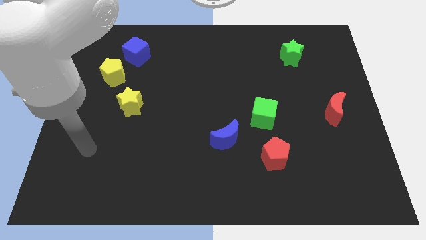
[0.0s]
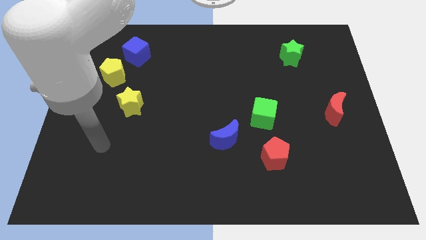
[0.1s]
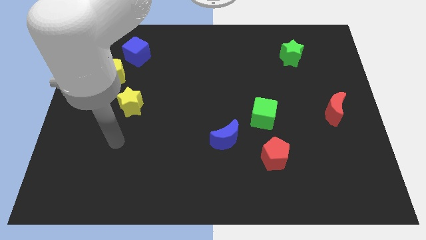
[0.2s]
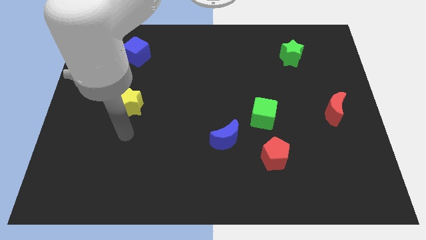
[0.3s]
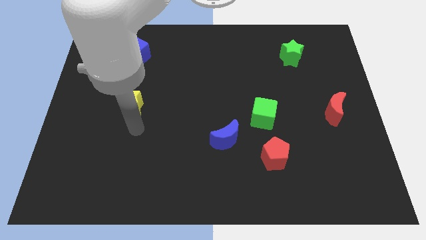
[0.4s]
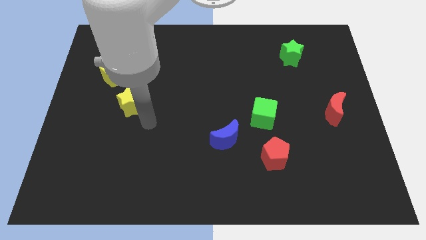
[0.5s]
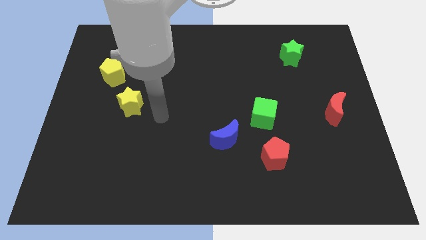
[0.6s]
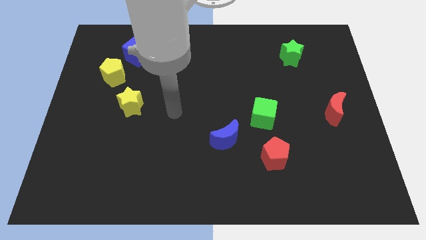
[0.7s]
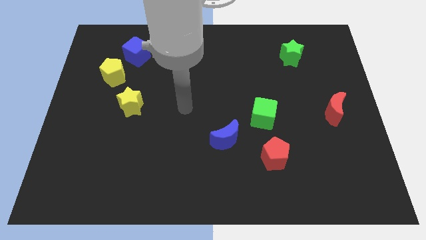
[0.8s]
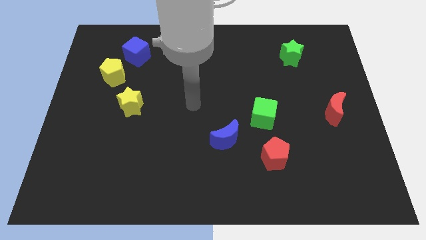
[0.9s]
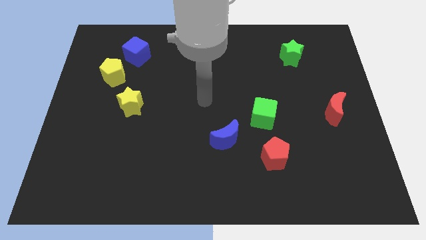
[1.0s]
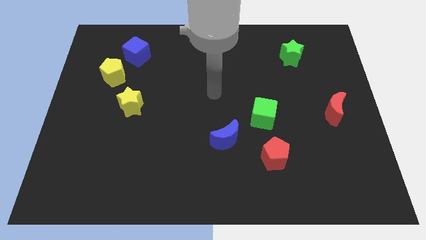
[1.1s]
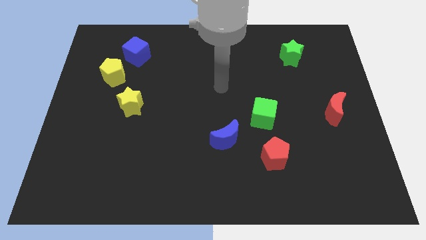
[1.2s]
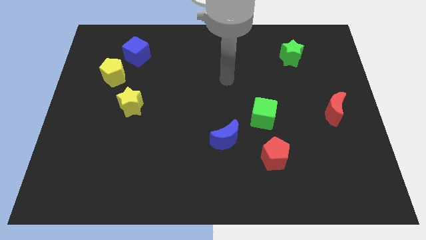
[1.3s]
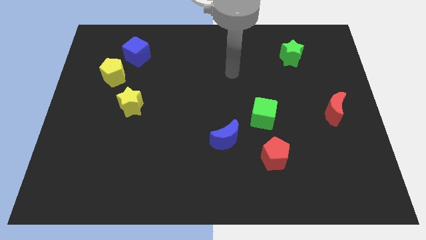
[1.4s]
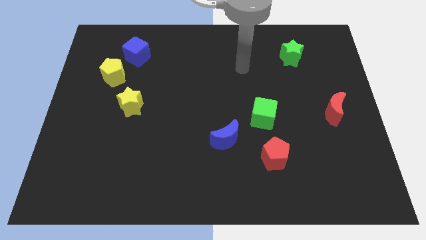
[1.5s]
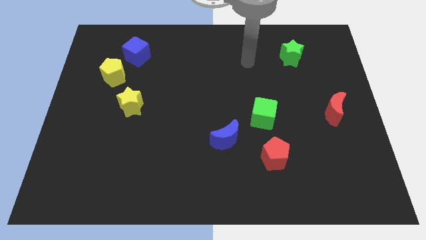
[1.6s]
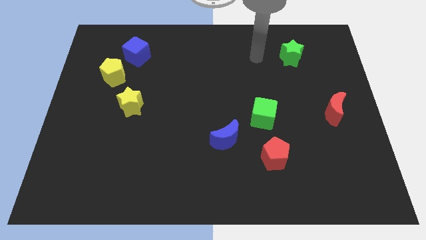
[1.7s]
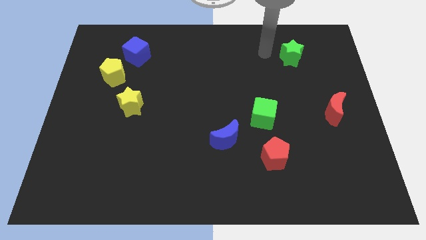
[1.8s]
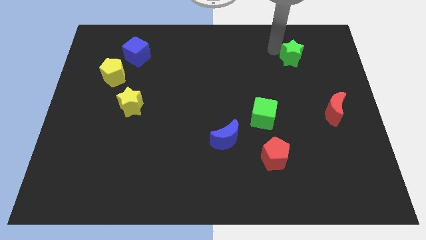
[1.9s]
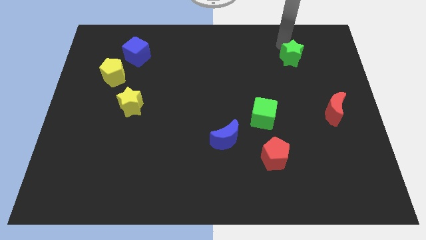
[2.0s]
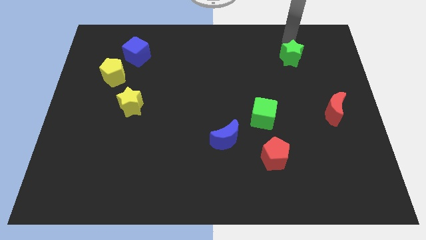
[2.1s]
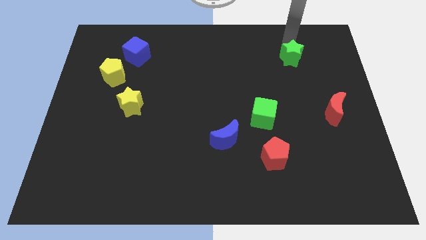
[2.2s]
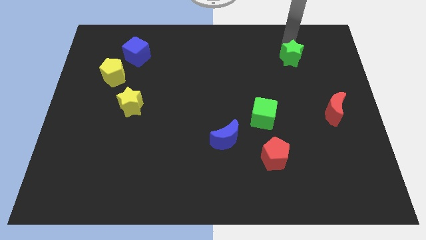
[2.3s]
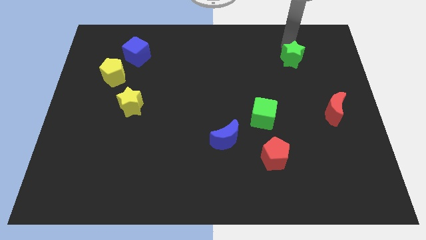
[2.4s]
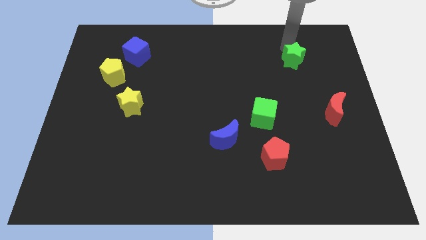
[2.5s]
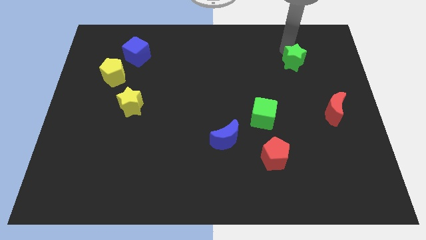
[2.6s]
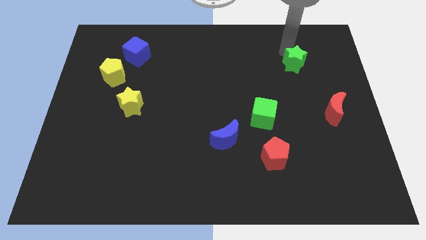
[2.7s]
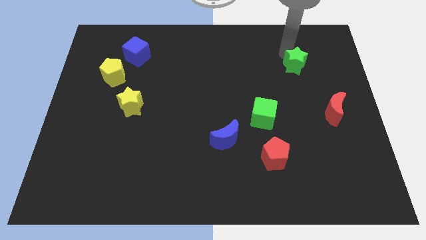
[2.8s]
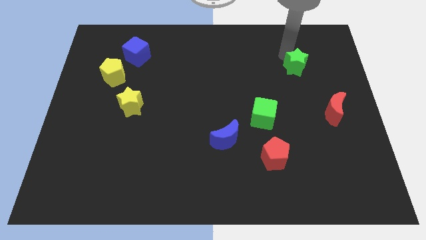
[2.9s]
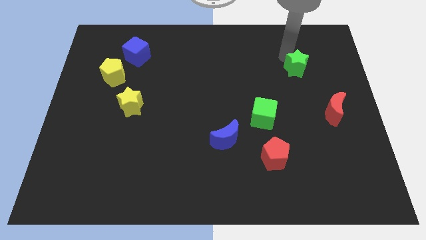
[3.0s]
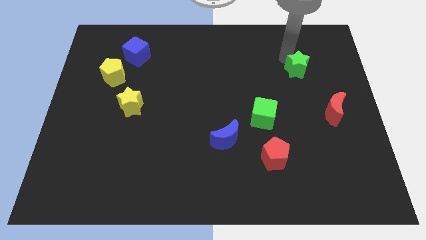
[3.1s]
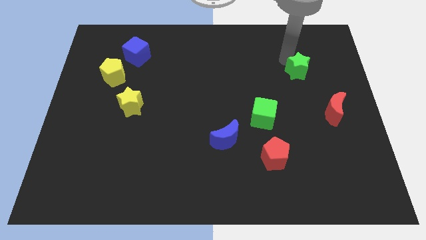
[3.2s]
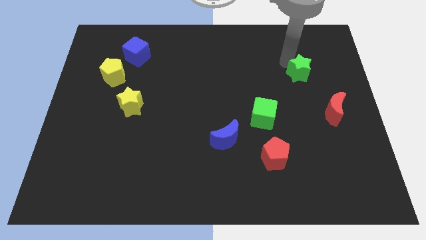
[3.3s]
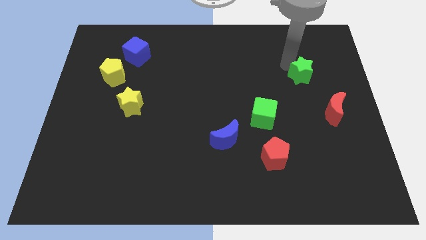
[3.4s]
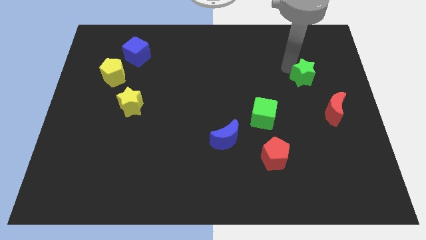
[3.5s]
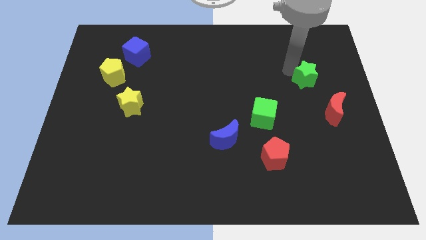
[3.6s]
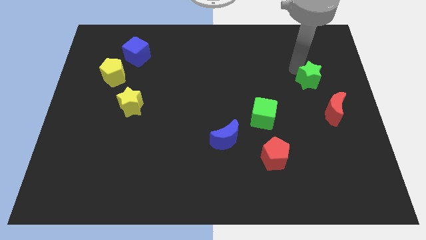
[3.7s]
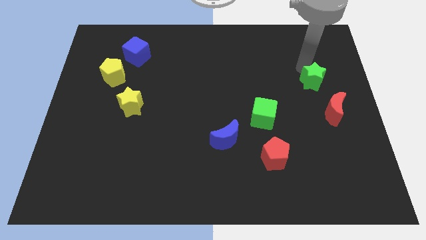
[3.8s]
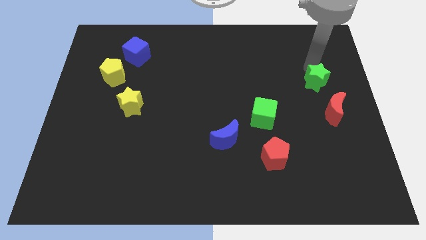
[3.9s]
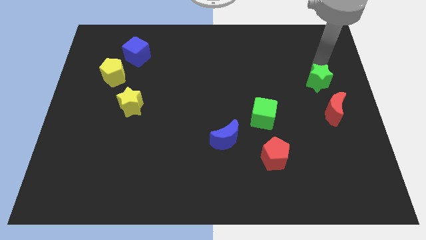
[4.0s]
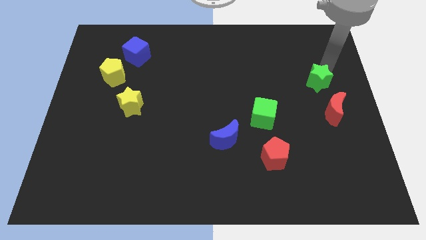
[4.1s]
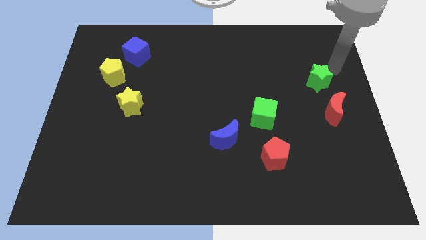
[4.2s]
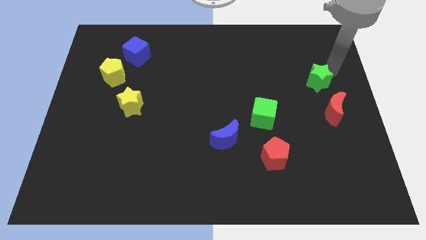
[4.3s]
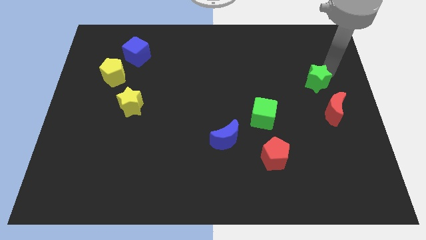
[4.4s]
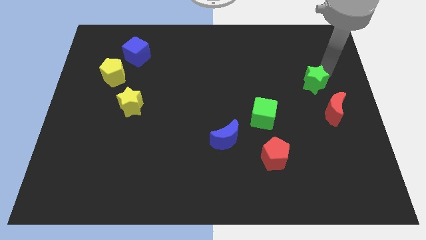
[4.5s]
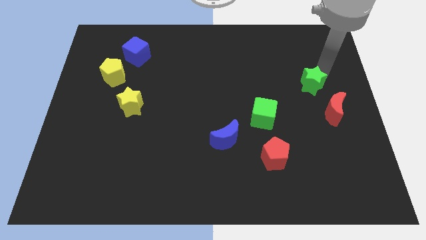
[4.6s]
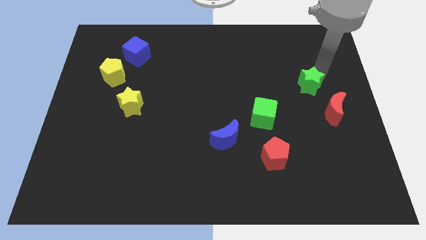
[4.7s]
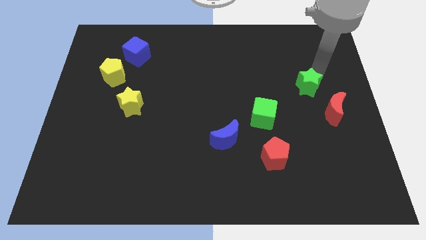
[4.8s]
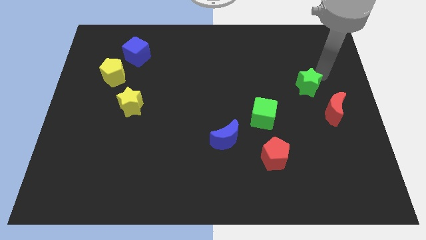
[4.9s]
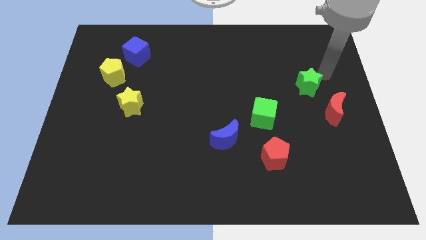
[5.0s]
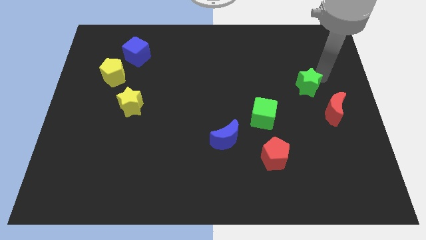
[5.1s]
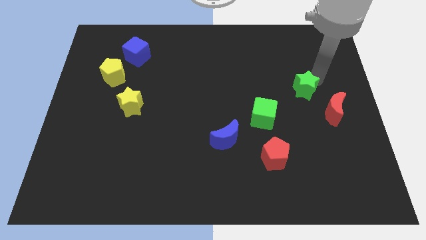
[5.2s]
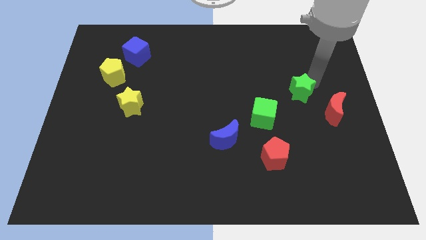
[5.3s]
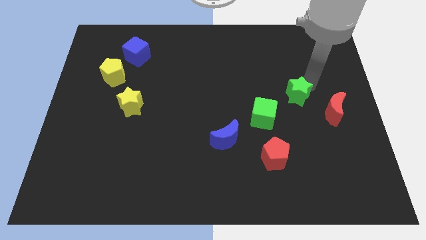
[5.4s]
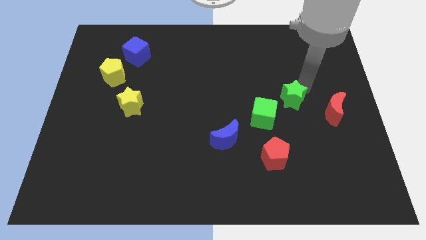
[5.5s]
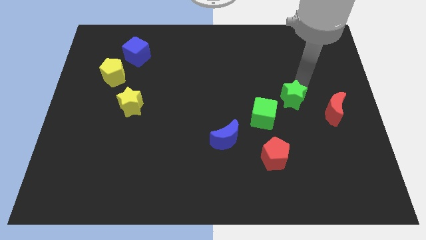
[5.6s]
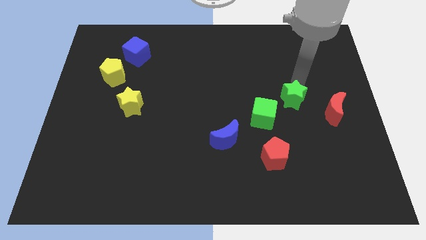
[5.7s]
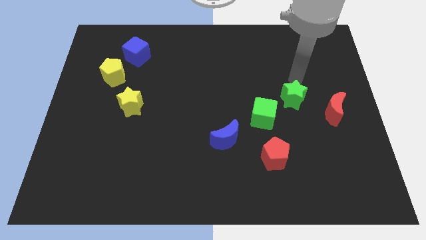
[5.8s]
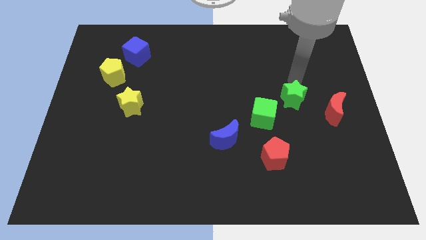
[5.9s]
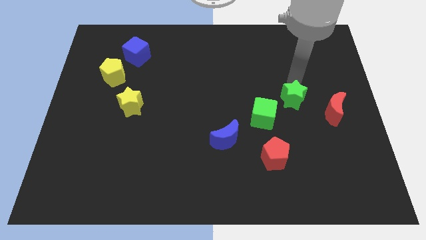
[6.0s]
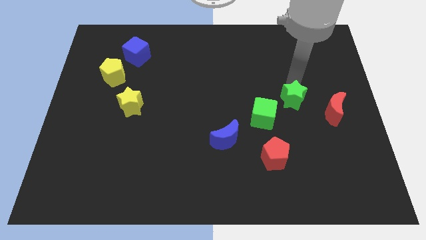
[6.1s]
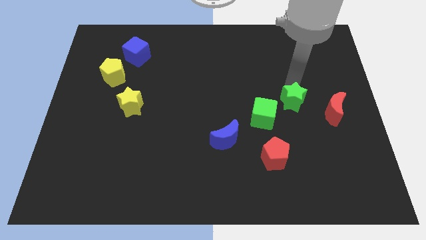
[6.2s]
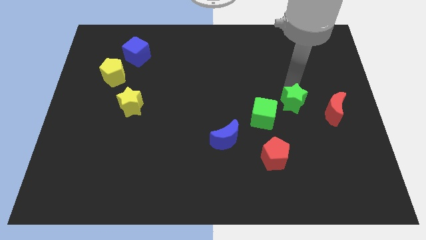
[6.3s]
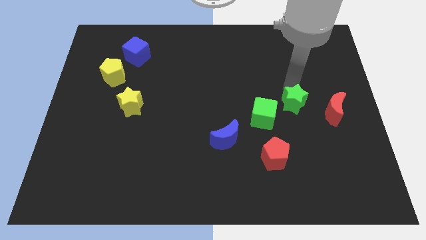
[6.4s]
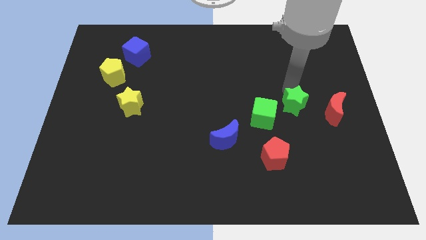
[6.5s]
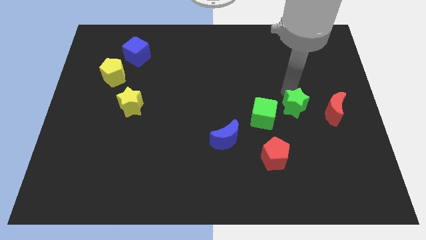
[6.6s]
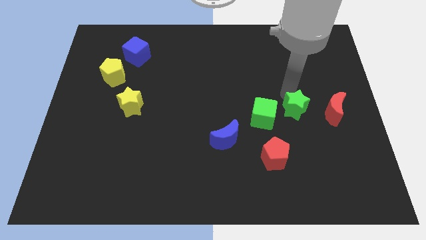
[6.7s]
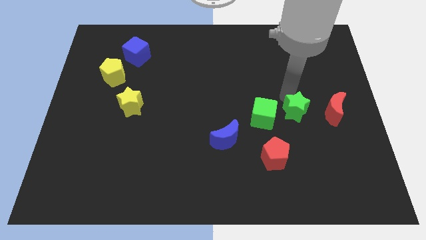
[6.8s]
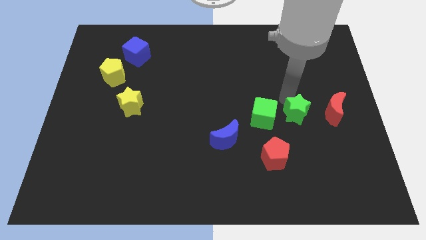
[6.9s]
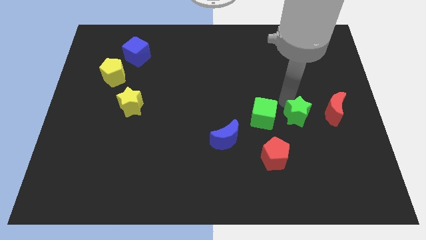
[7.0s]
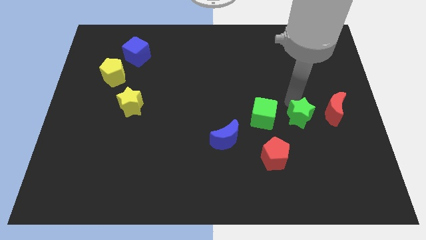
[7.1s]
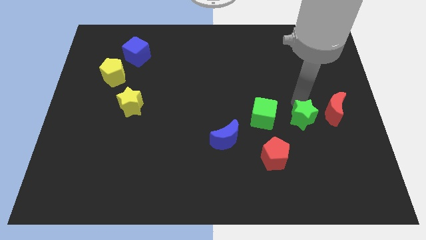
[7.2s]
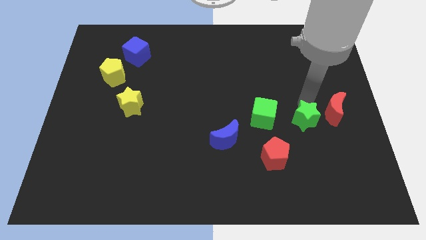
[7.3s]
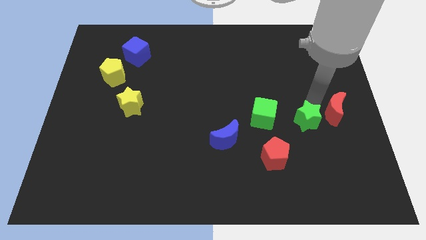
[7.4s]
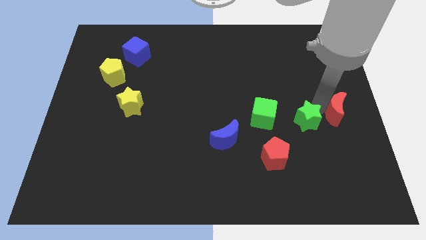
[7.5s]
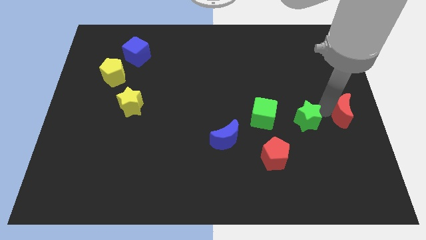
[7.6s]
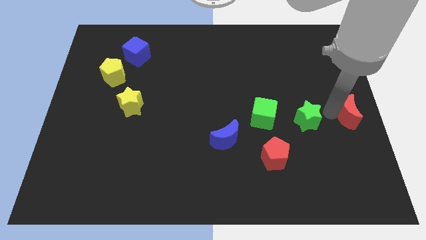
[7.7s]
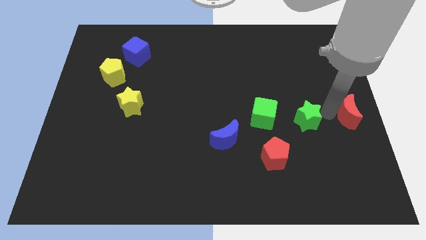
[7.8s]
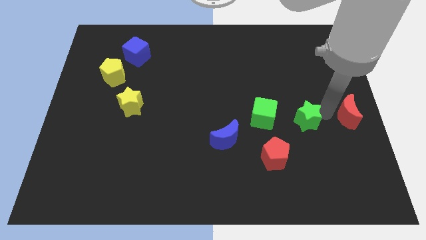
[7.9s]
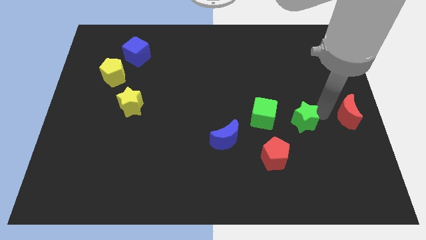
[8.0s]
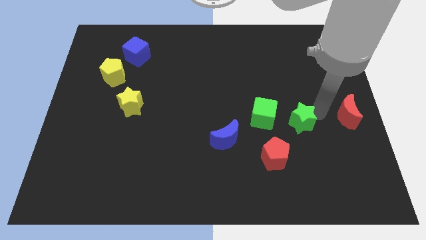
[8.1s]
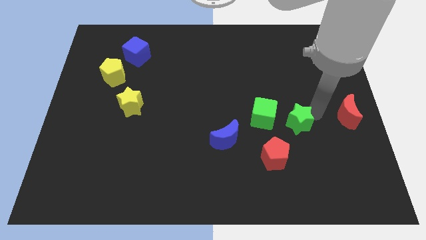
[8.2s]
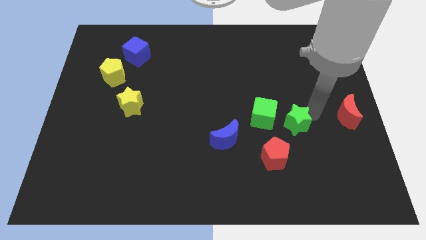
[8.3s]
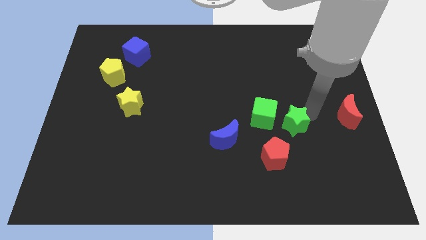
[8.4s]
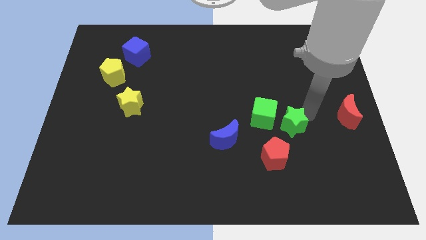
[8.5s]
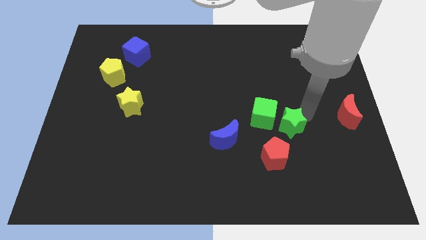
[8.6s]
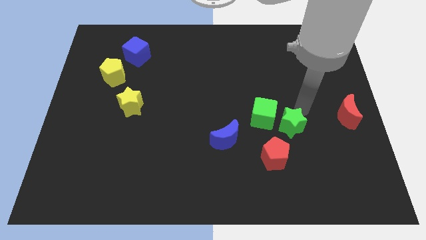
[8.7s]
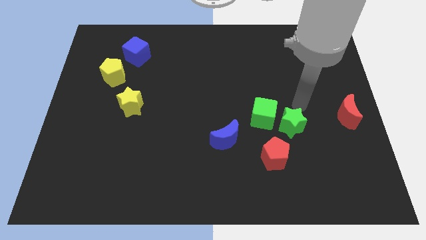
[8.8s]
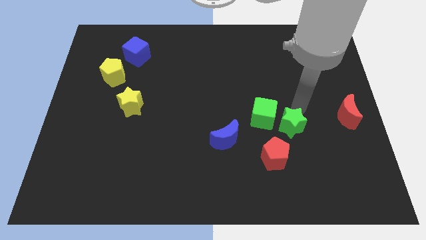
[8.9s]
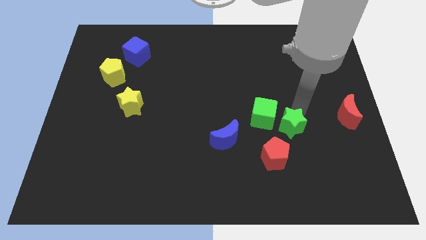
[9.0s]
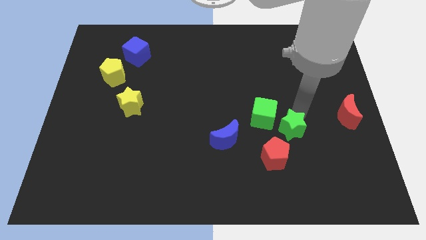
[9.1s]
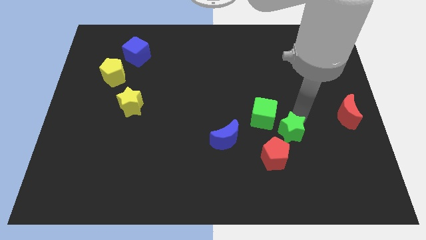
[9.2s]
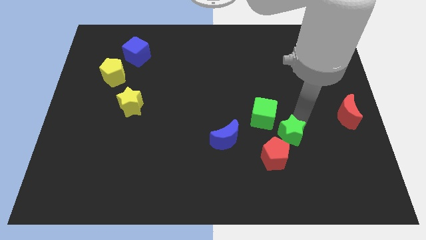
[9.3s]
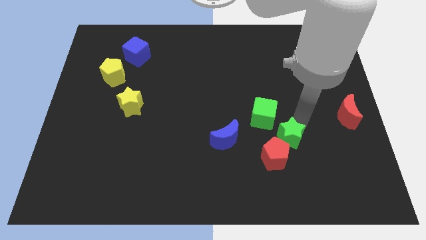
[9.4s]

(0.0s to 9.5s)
push the green star to the red pentagon
